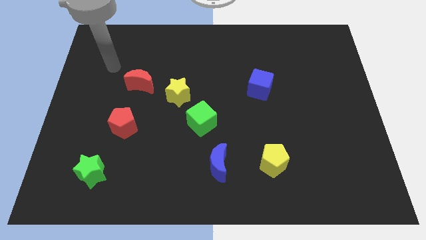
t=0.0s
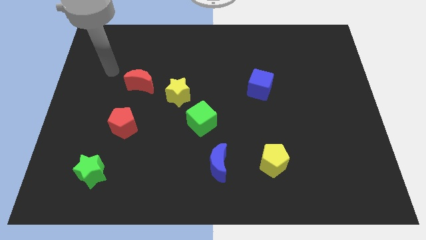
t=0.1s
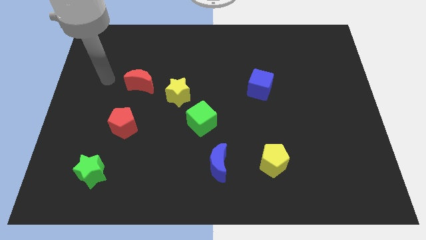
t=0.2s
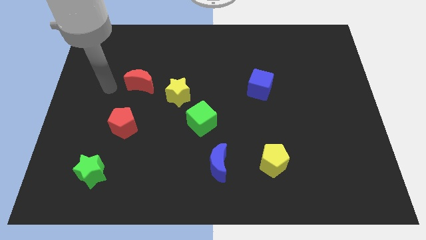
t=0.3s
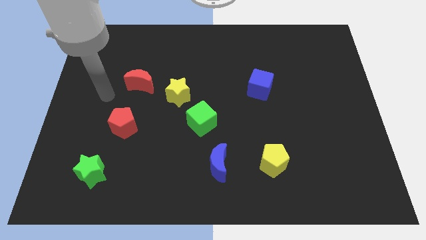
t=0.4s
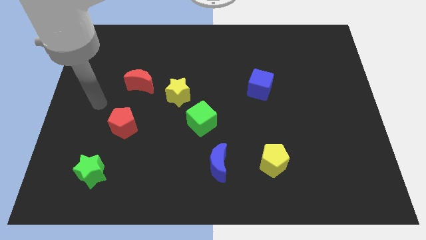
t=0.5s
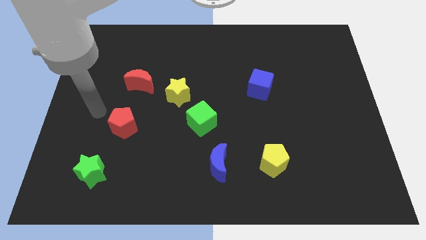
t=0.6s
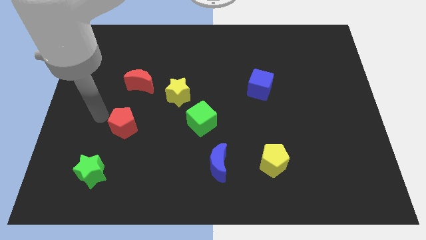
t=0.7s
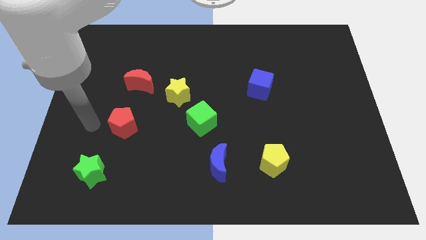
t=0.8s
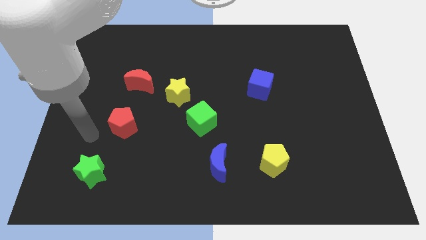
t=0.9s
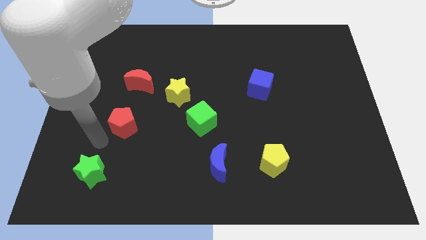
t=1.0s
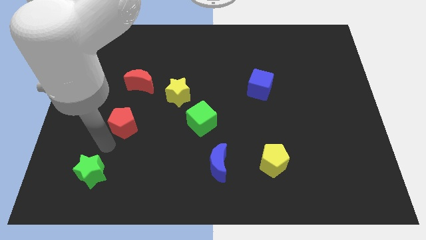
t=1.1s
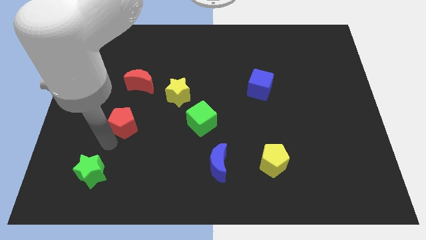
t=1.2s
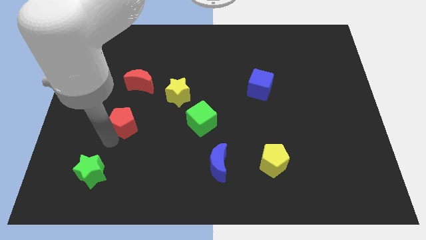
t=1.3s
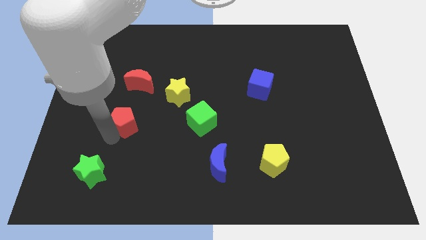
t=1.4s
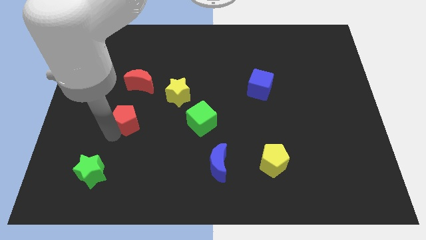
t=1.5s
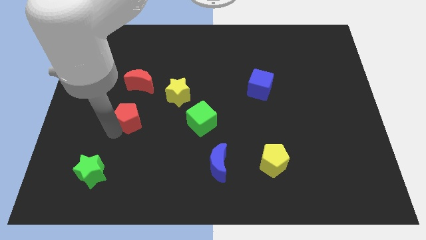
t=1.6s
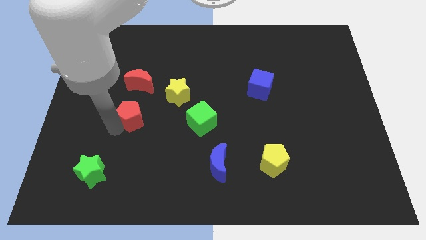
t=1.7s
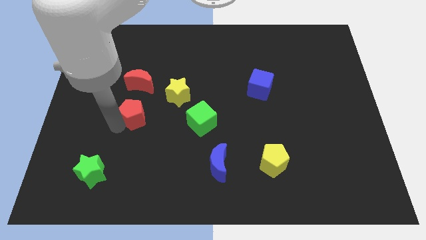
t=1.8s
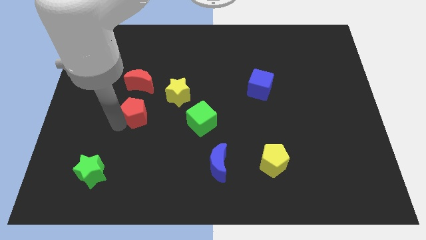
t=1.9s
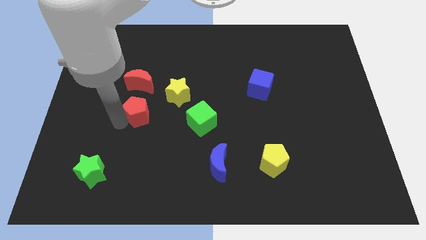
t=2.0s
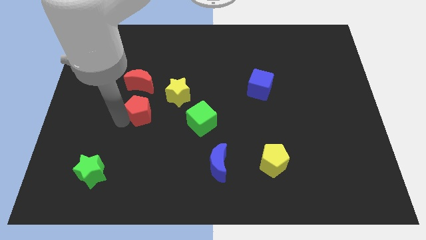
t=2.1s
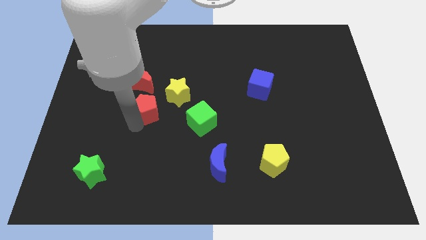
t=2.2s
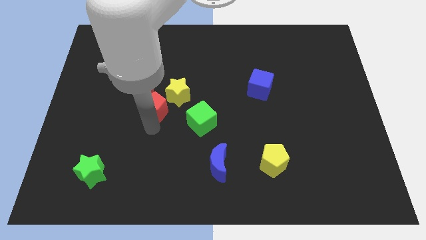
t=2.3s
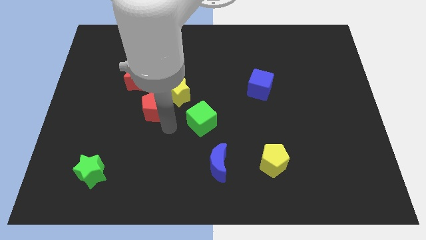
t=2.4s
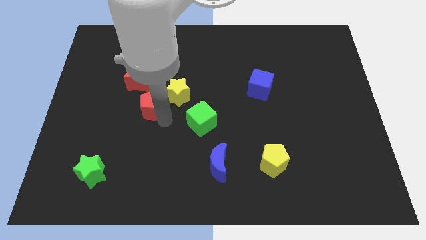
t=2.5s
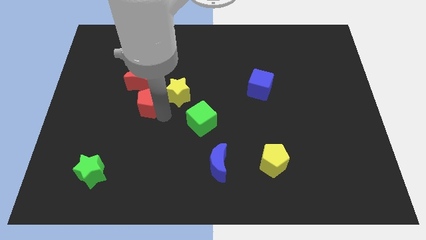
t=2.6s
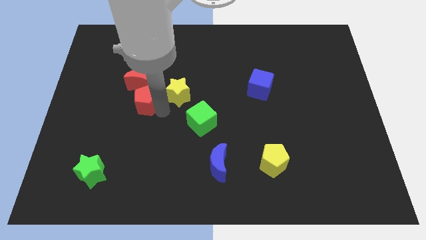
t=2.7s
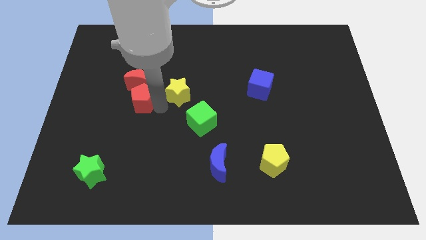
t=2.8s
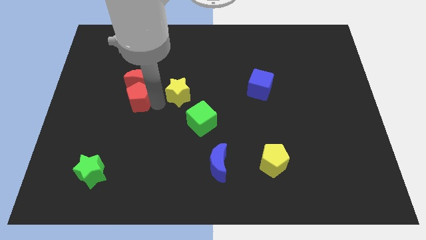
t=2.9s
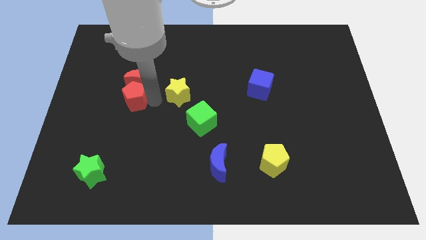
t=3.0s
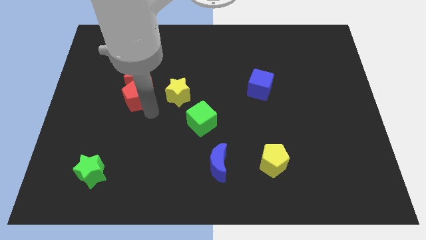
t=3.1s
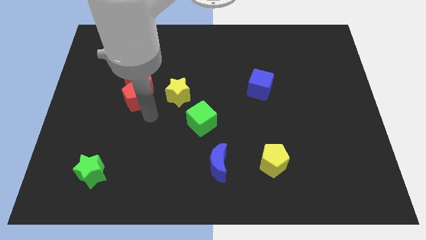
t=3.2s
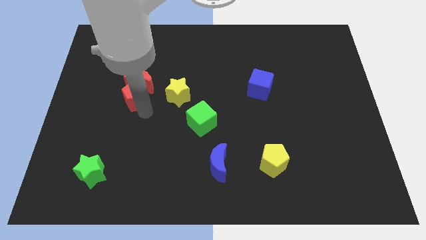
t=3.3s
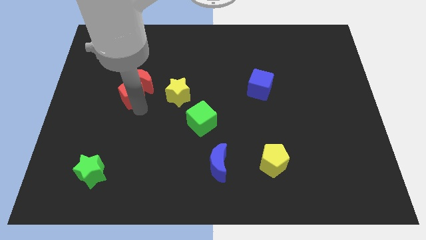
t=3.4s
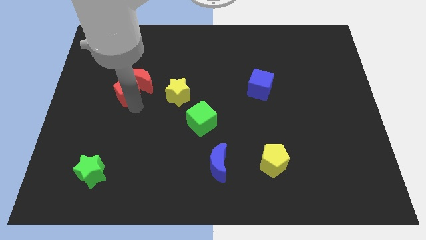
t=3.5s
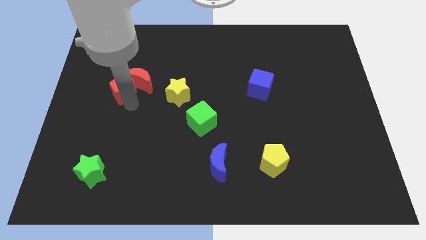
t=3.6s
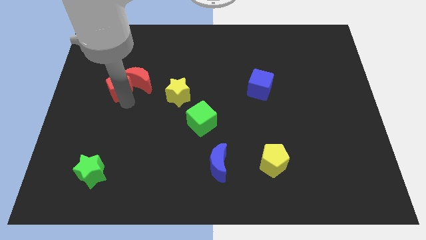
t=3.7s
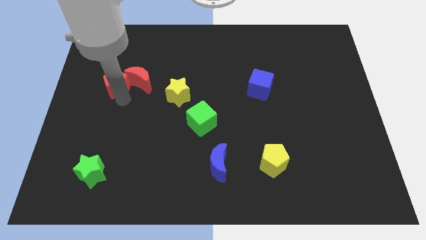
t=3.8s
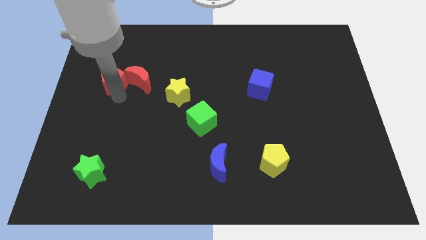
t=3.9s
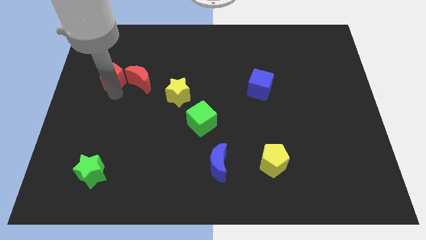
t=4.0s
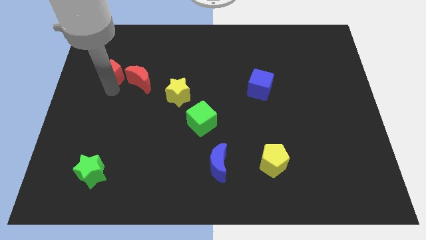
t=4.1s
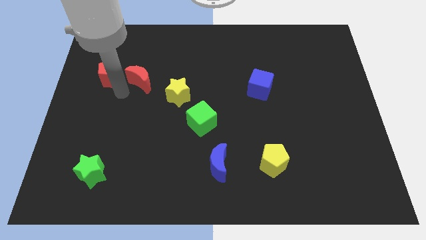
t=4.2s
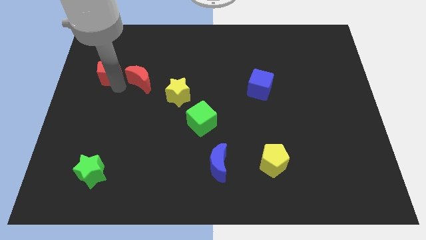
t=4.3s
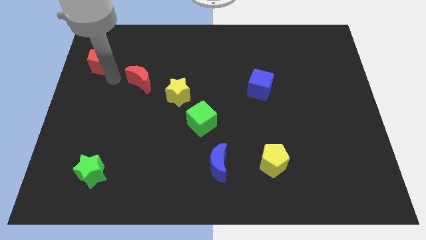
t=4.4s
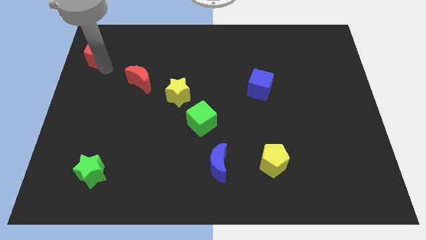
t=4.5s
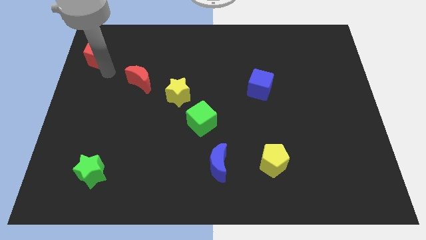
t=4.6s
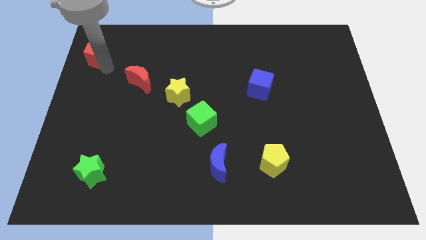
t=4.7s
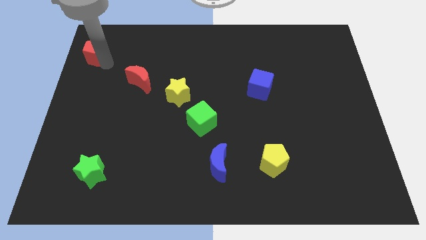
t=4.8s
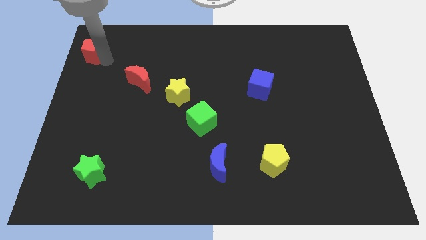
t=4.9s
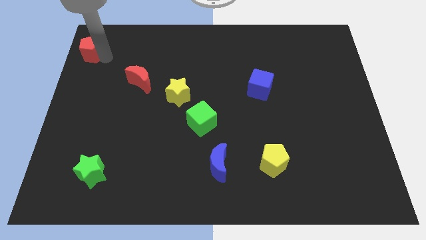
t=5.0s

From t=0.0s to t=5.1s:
slide the red pentagon to the top left of the board

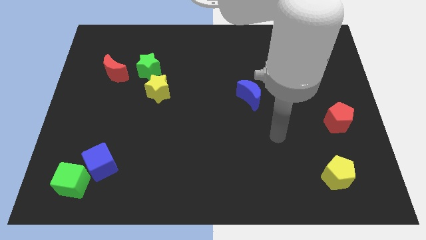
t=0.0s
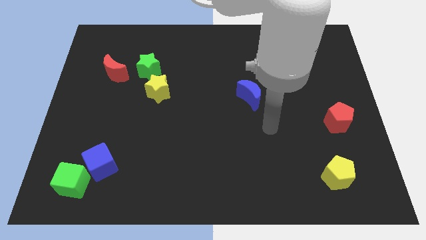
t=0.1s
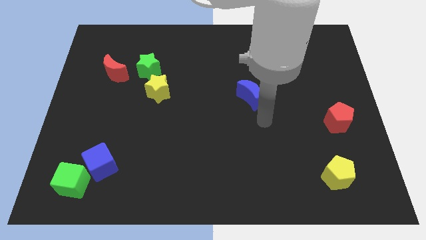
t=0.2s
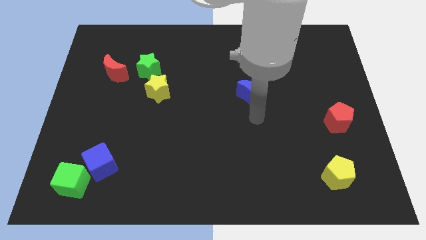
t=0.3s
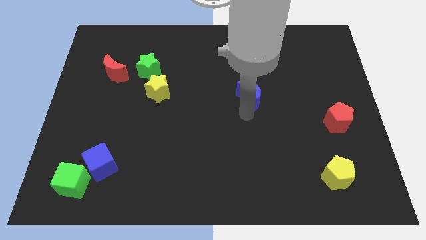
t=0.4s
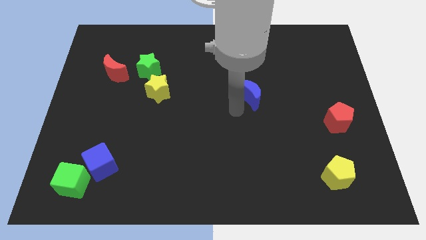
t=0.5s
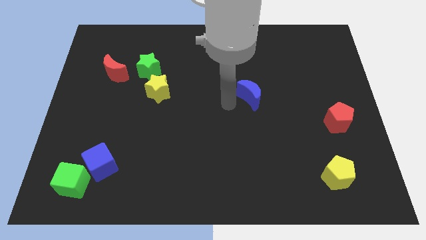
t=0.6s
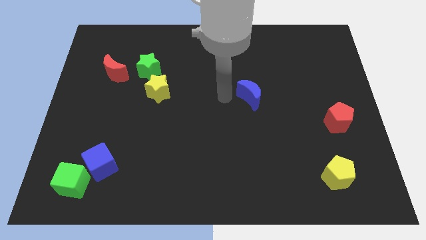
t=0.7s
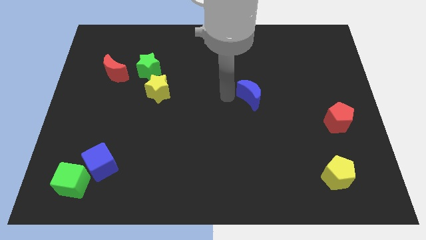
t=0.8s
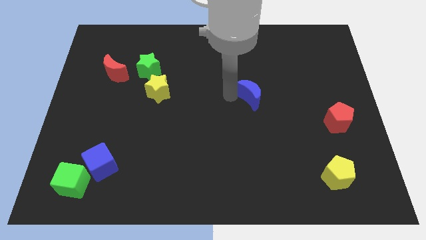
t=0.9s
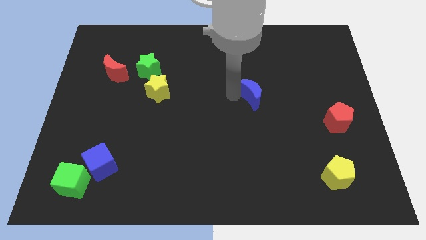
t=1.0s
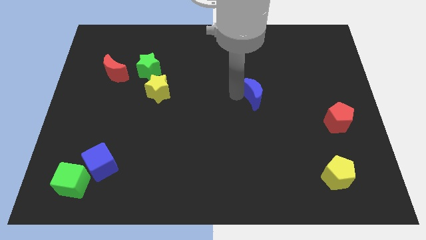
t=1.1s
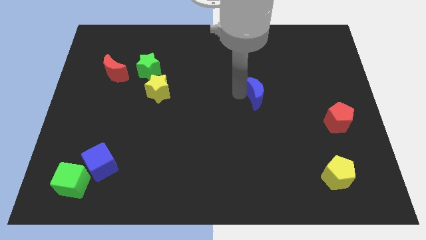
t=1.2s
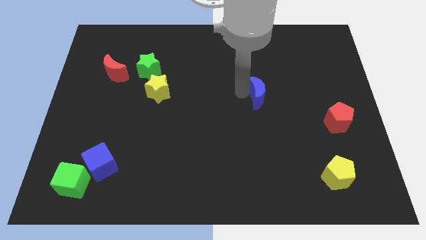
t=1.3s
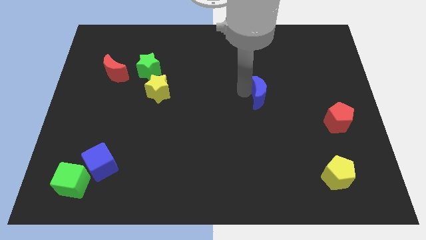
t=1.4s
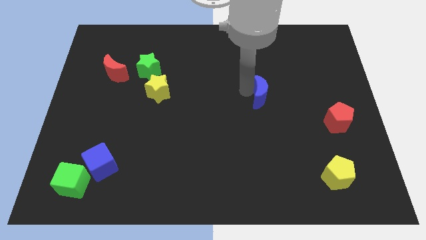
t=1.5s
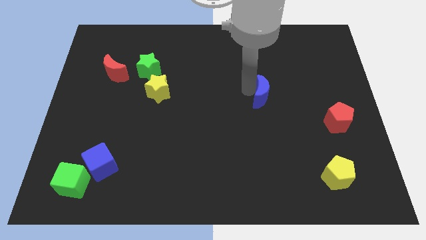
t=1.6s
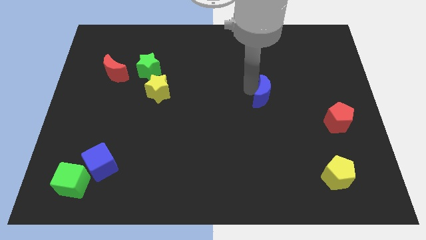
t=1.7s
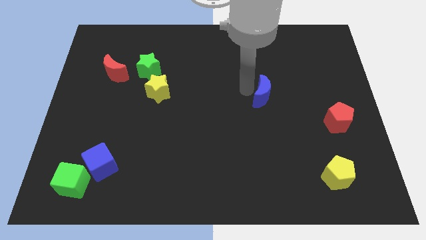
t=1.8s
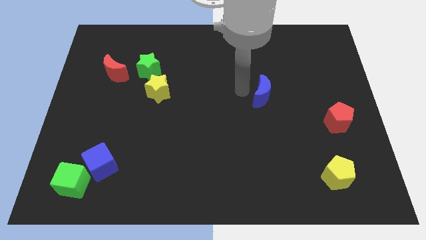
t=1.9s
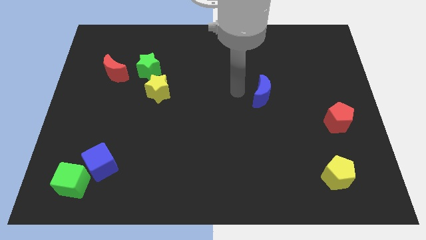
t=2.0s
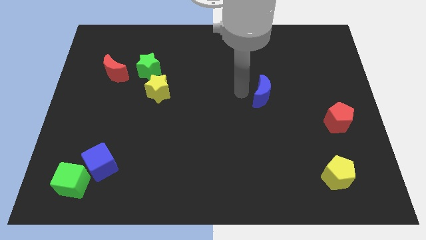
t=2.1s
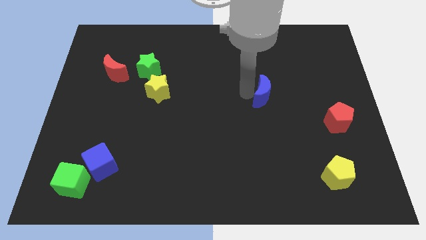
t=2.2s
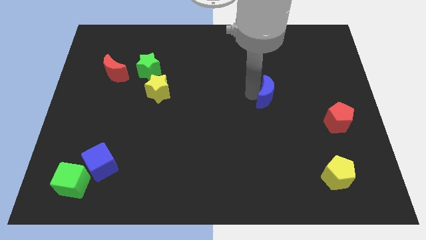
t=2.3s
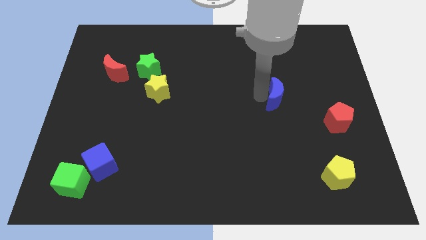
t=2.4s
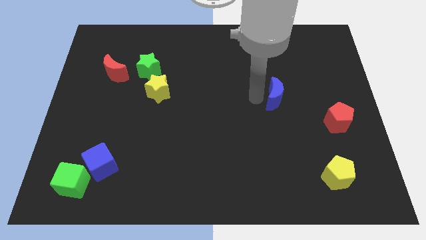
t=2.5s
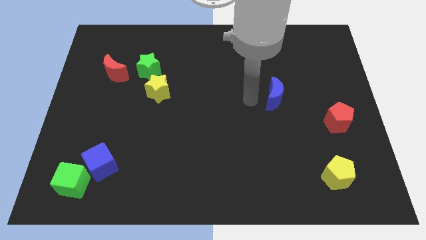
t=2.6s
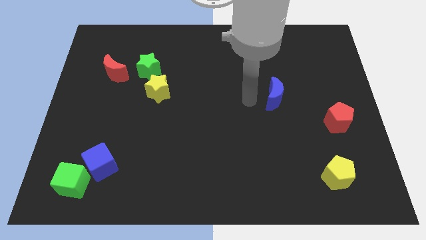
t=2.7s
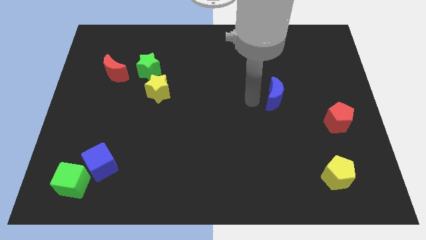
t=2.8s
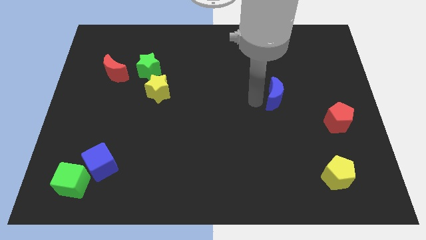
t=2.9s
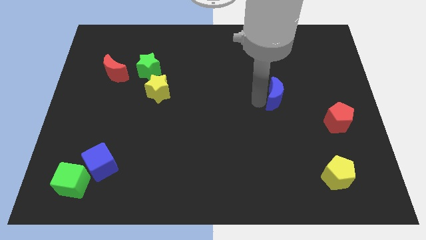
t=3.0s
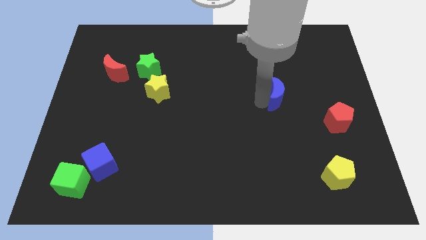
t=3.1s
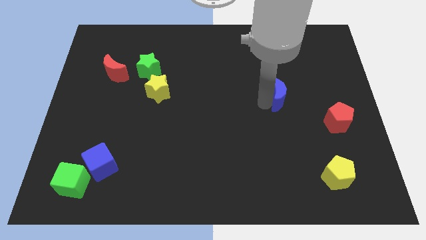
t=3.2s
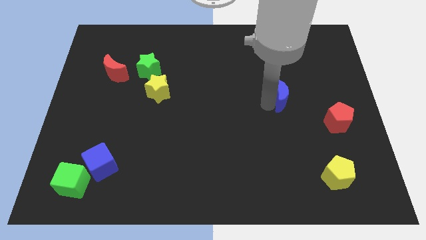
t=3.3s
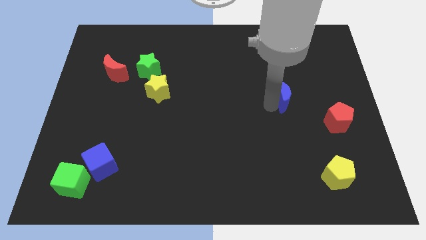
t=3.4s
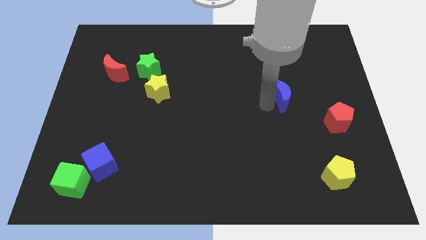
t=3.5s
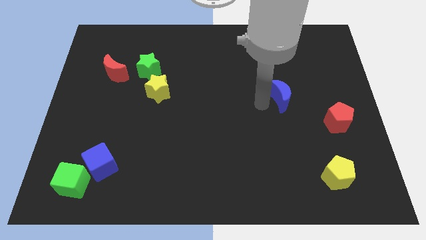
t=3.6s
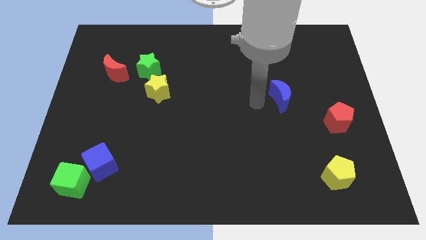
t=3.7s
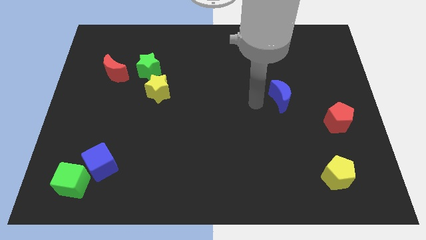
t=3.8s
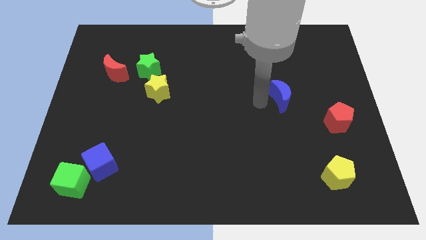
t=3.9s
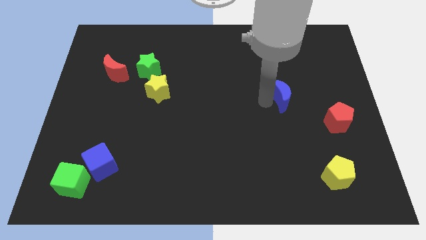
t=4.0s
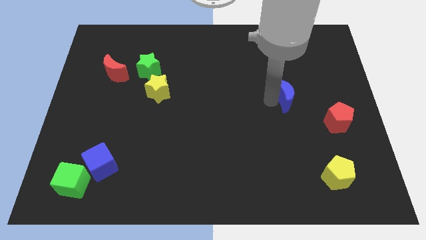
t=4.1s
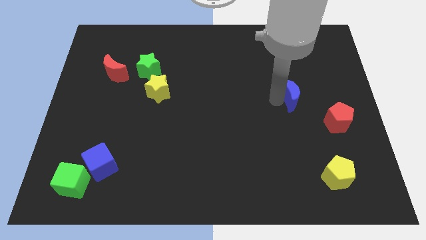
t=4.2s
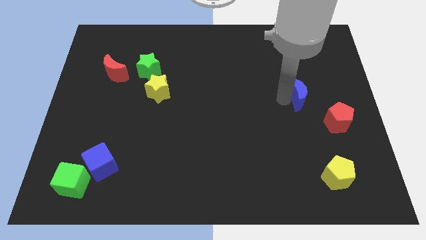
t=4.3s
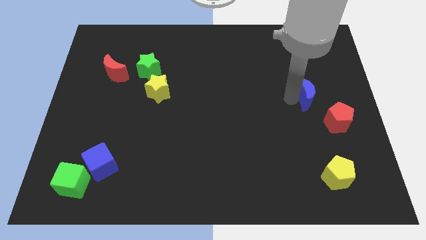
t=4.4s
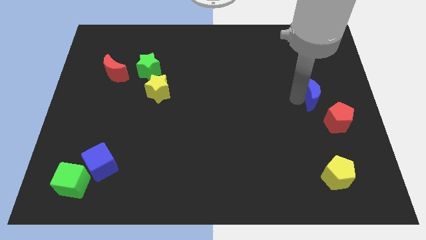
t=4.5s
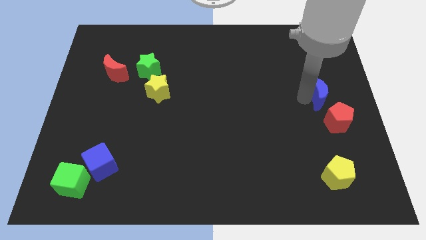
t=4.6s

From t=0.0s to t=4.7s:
push the blue moon to the right side
